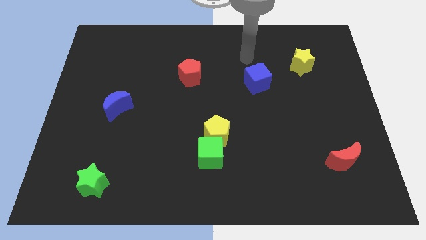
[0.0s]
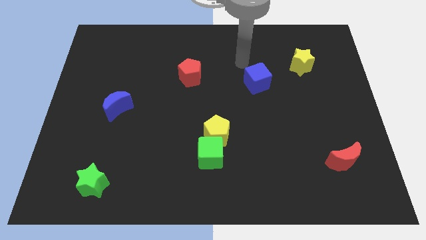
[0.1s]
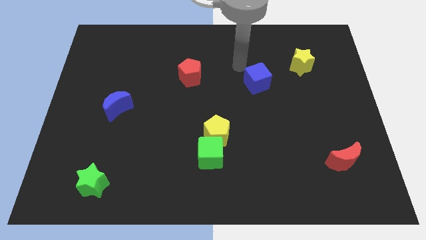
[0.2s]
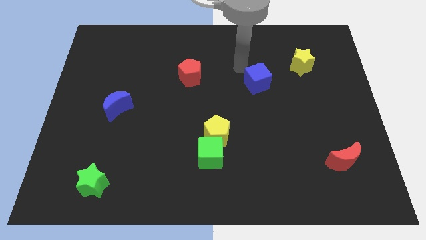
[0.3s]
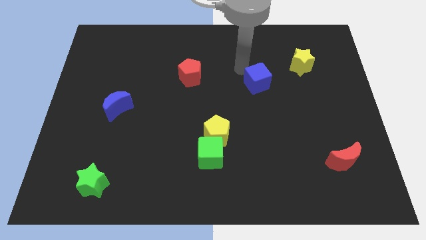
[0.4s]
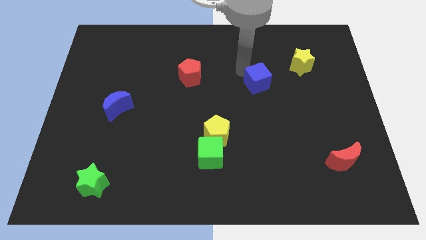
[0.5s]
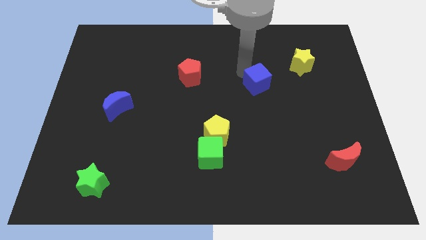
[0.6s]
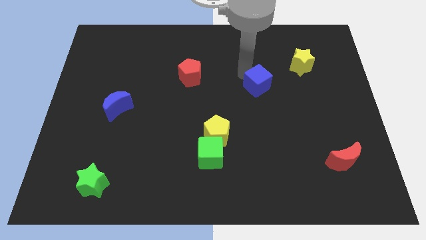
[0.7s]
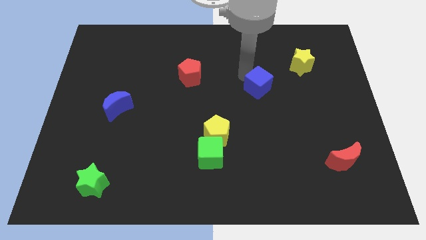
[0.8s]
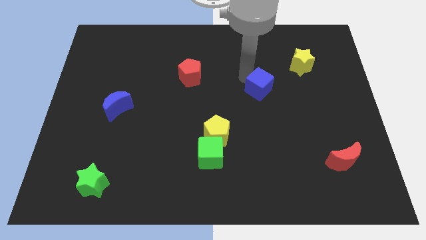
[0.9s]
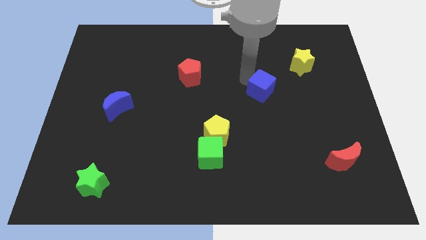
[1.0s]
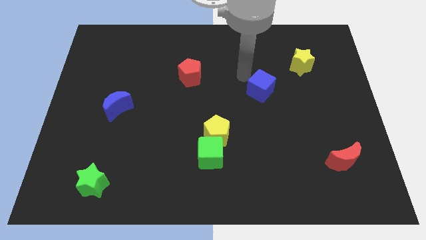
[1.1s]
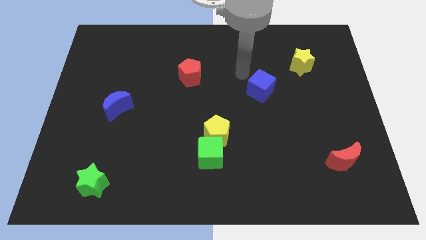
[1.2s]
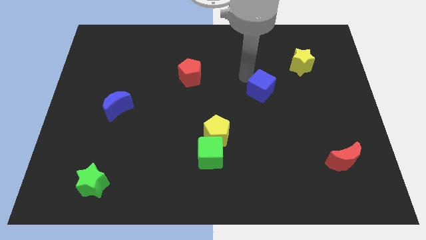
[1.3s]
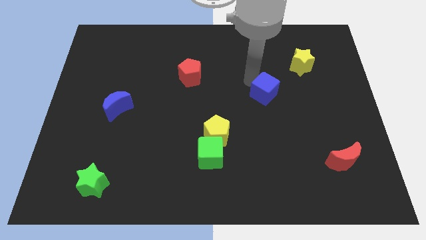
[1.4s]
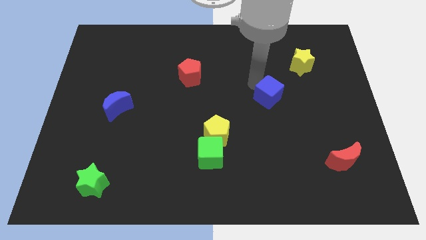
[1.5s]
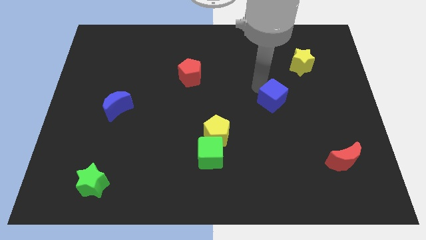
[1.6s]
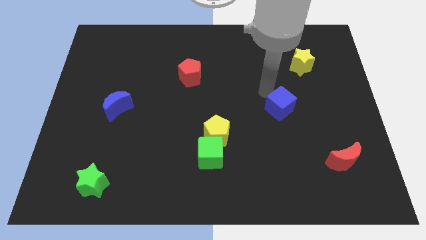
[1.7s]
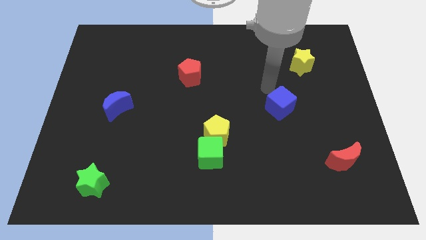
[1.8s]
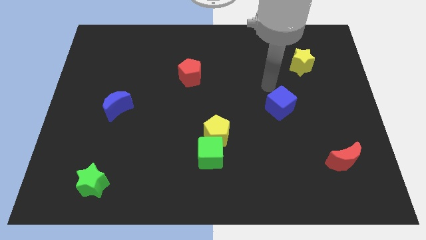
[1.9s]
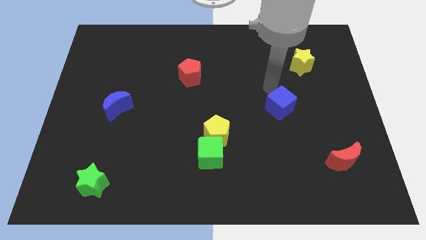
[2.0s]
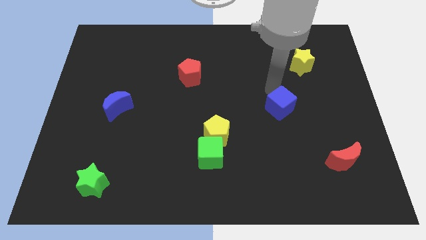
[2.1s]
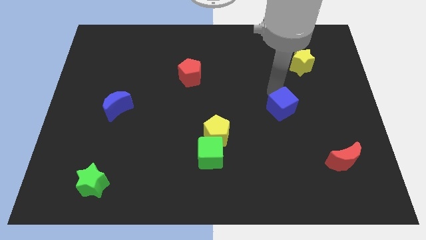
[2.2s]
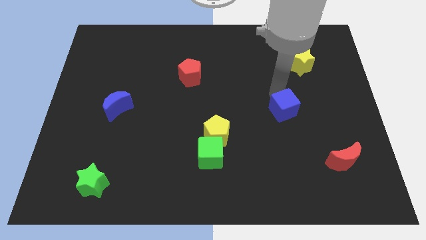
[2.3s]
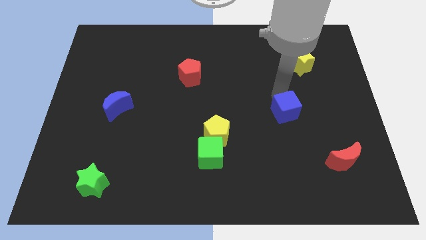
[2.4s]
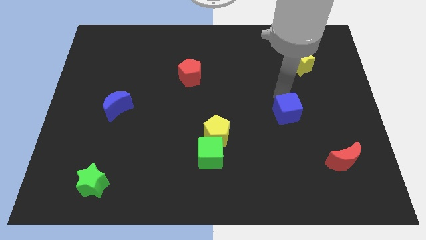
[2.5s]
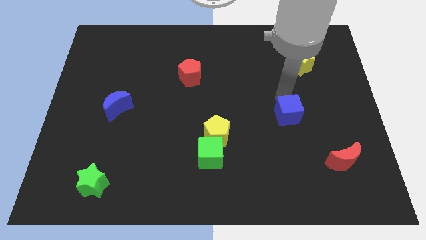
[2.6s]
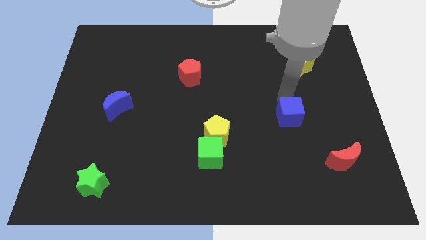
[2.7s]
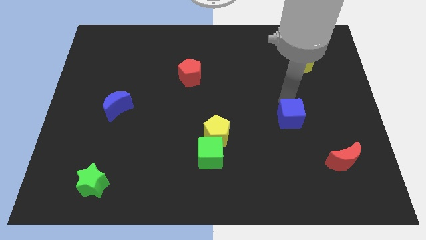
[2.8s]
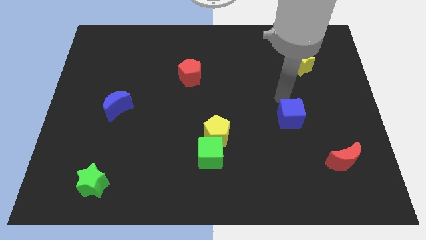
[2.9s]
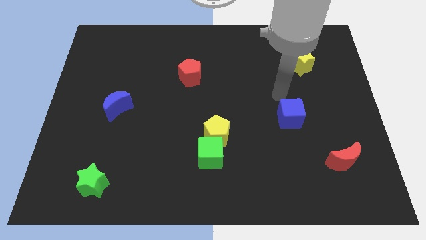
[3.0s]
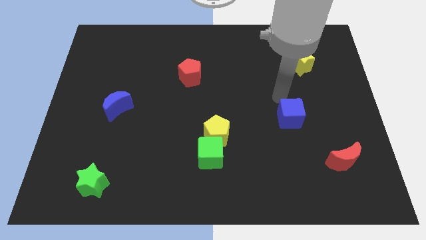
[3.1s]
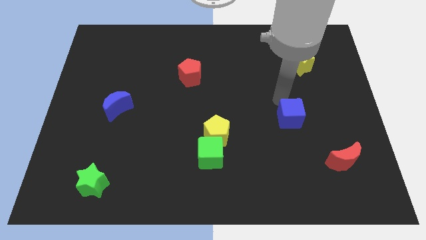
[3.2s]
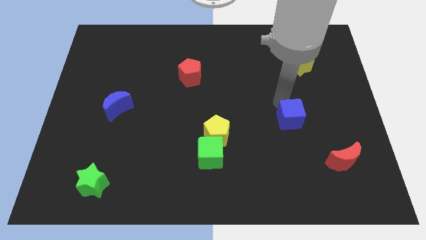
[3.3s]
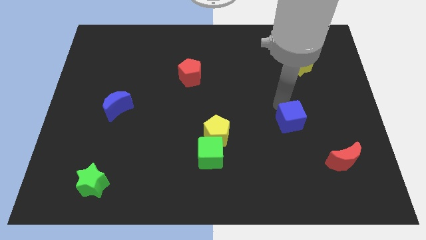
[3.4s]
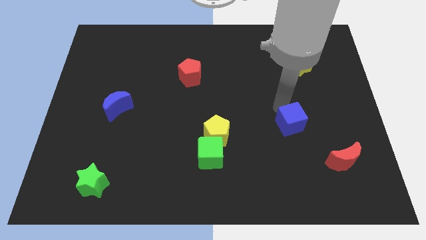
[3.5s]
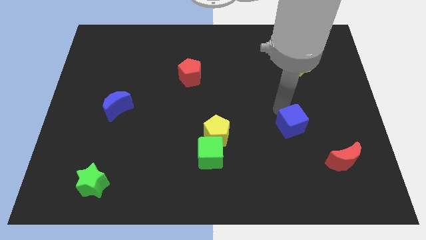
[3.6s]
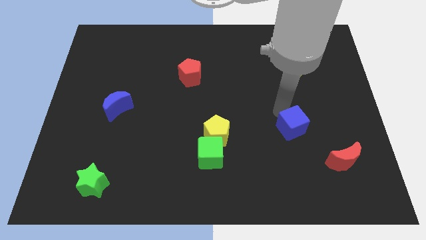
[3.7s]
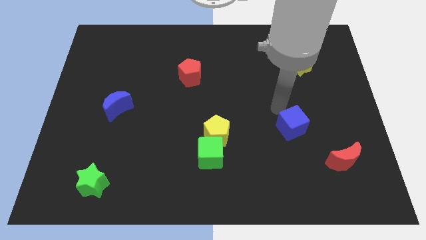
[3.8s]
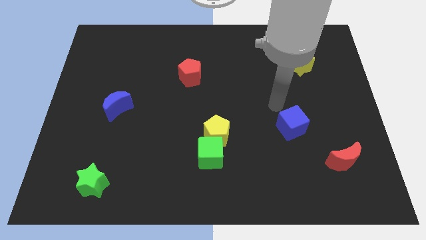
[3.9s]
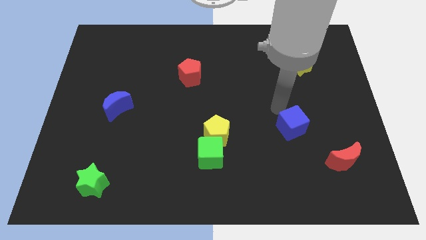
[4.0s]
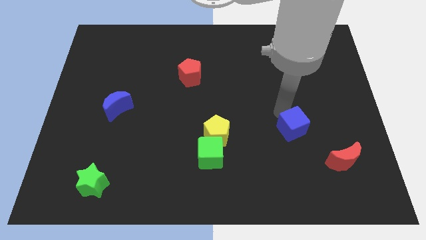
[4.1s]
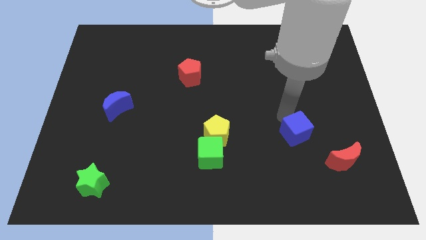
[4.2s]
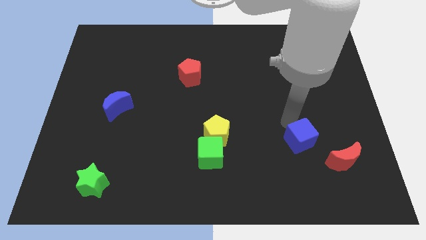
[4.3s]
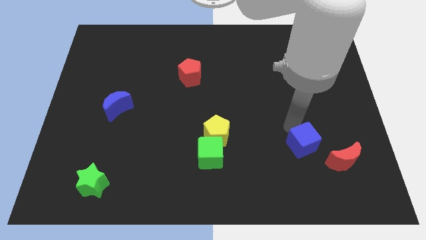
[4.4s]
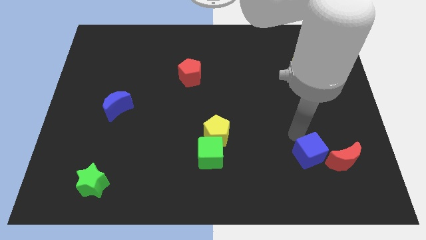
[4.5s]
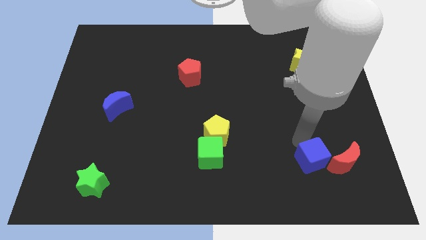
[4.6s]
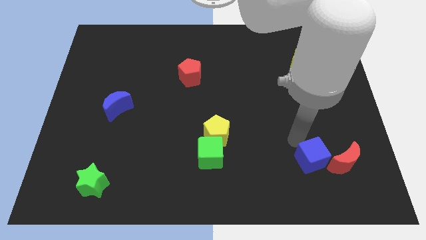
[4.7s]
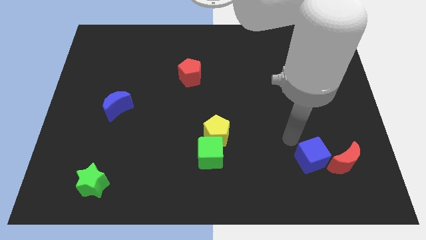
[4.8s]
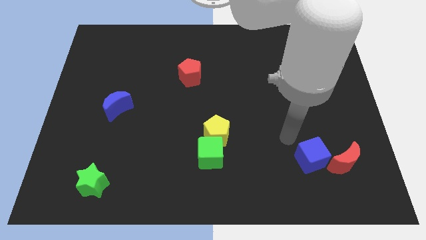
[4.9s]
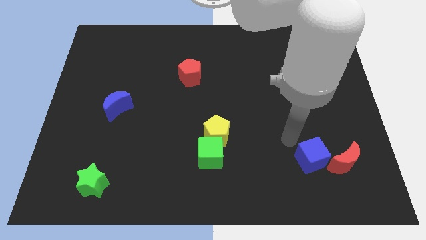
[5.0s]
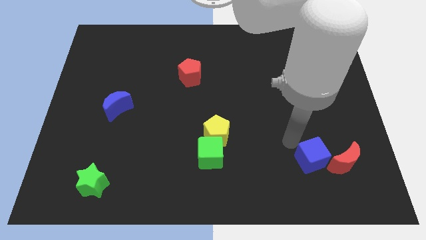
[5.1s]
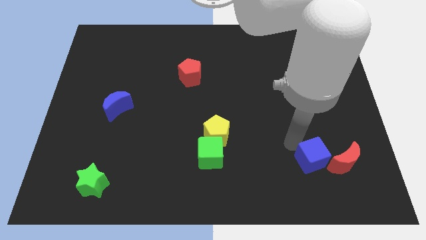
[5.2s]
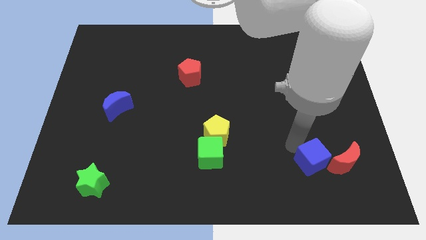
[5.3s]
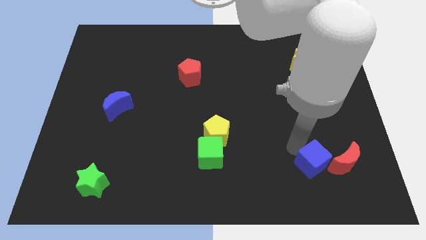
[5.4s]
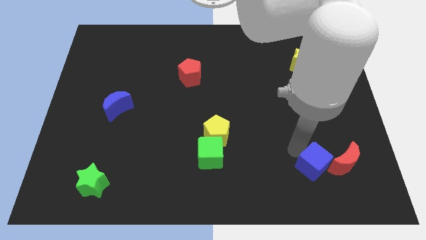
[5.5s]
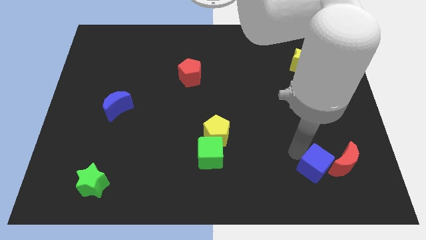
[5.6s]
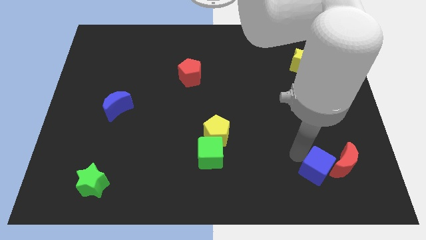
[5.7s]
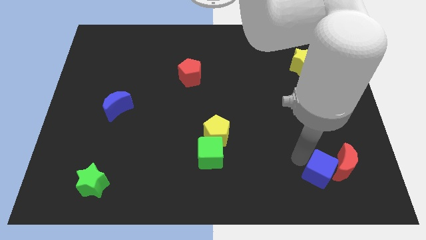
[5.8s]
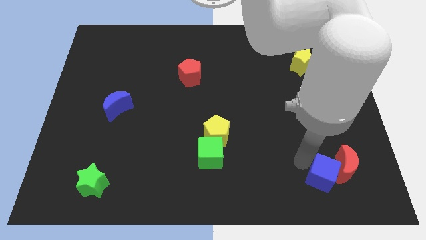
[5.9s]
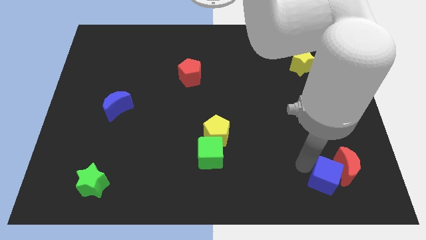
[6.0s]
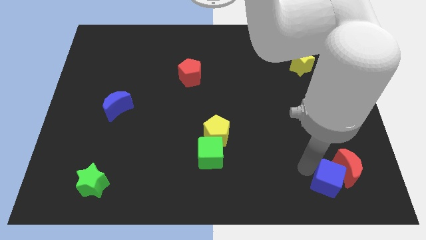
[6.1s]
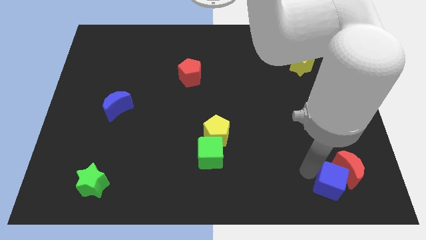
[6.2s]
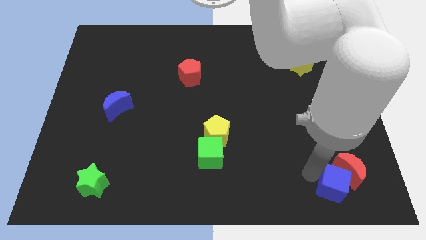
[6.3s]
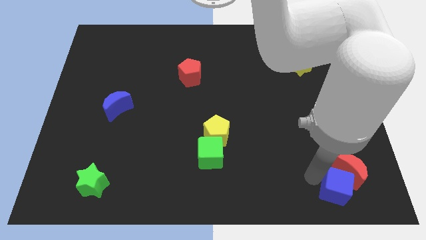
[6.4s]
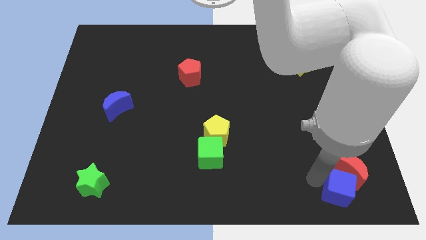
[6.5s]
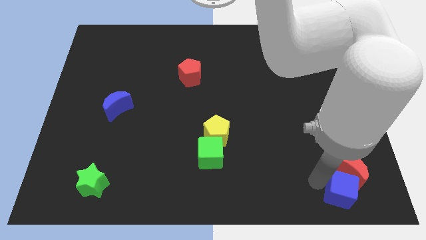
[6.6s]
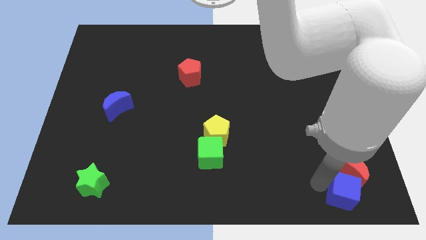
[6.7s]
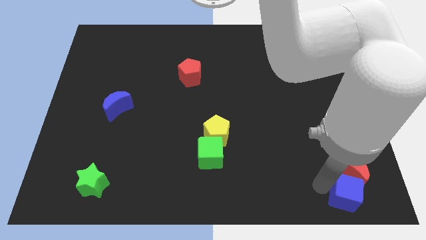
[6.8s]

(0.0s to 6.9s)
slide the blue cube to the bottom right

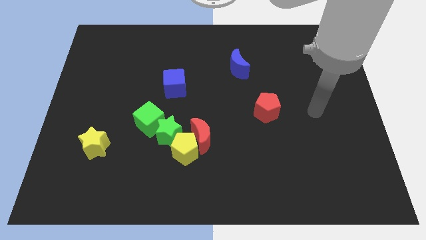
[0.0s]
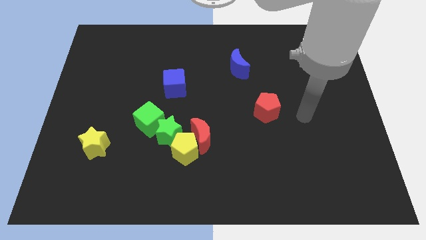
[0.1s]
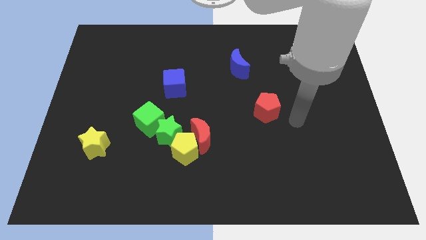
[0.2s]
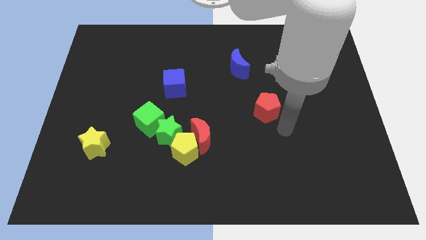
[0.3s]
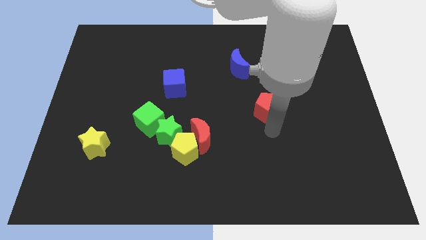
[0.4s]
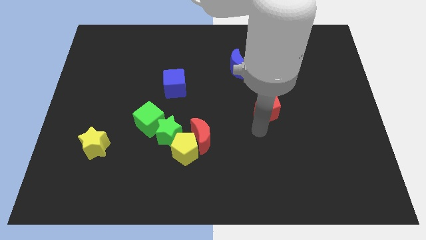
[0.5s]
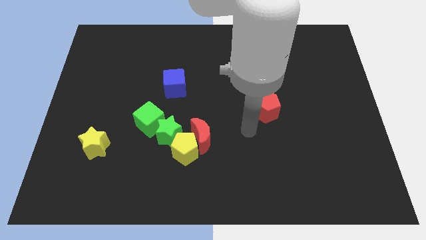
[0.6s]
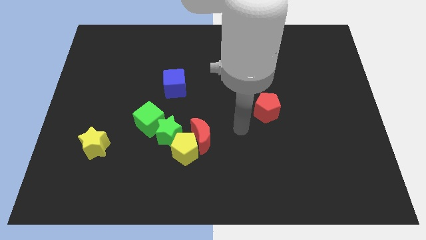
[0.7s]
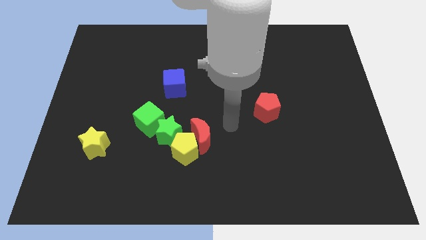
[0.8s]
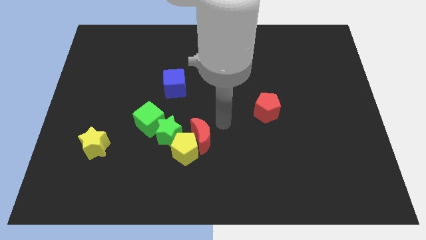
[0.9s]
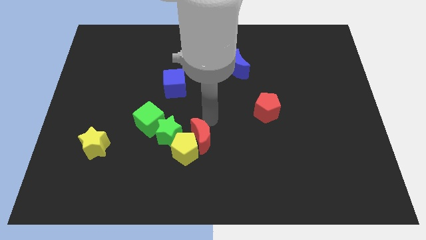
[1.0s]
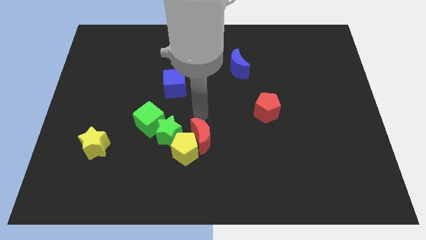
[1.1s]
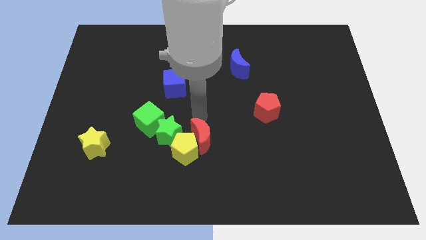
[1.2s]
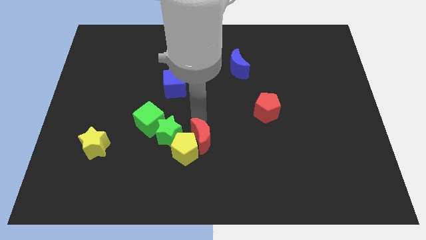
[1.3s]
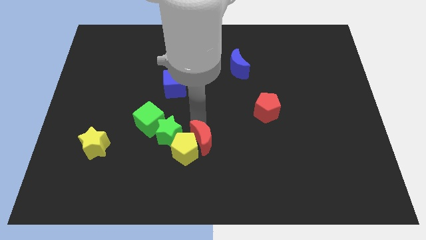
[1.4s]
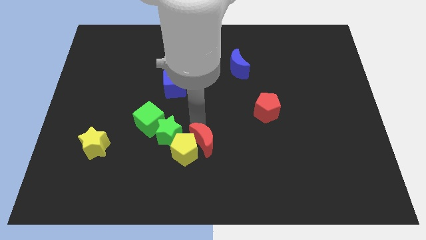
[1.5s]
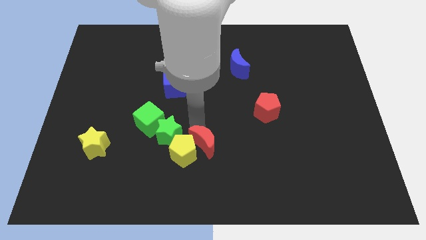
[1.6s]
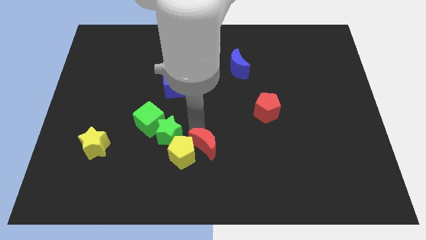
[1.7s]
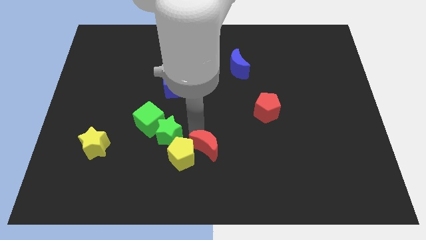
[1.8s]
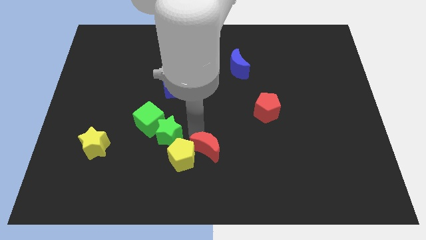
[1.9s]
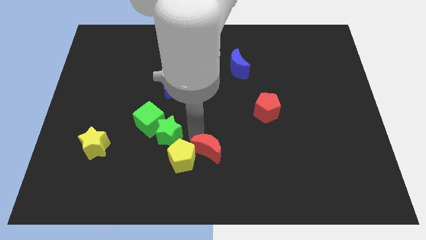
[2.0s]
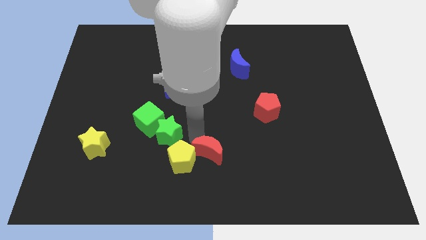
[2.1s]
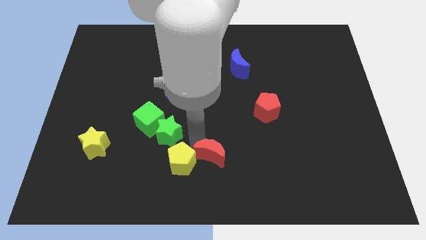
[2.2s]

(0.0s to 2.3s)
slide the red moon to the bottom
